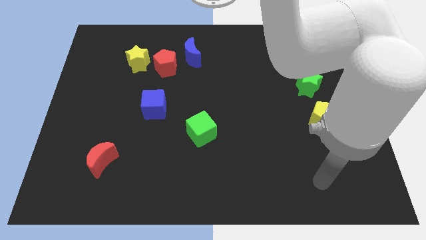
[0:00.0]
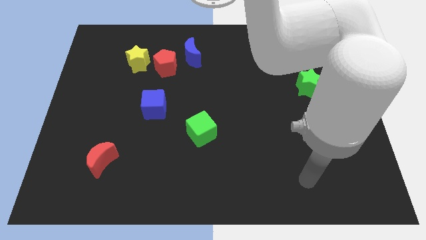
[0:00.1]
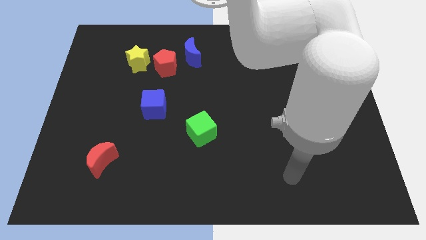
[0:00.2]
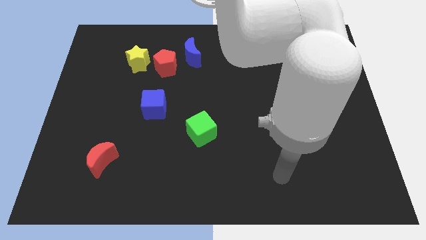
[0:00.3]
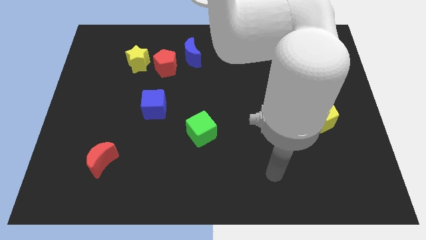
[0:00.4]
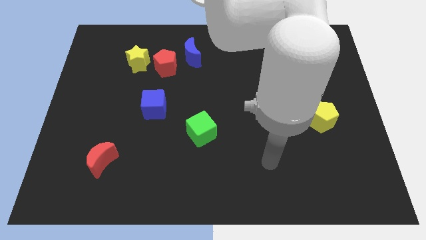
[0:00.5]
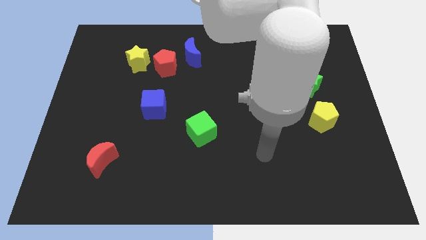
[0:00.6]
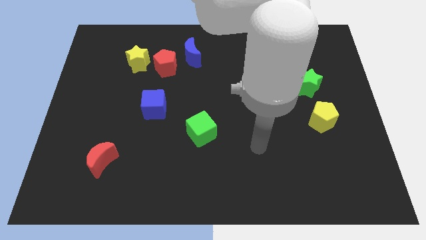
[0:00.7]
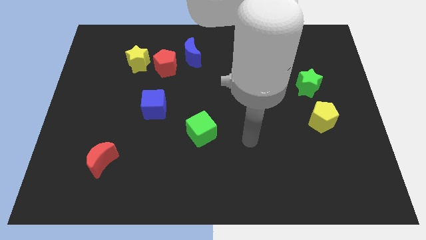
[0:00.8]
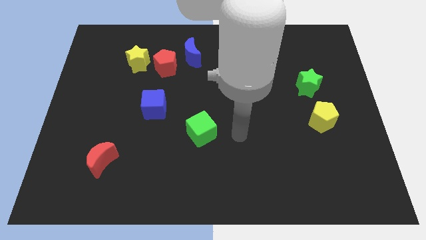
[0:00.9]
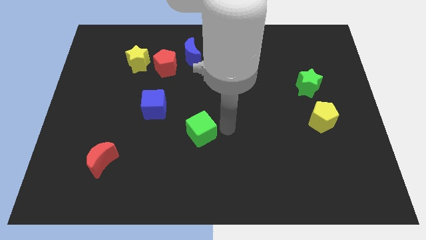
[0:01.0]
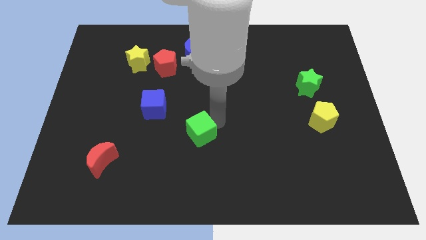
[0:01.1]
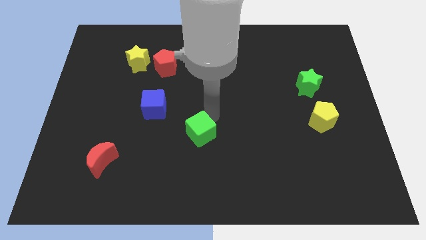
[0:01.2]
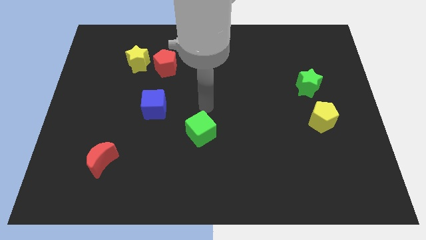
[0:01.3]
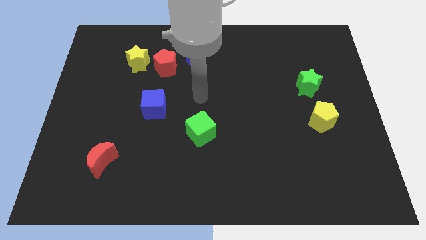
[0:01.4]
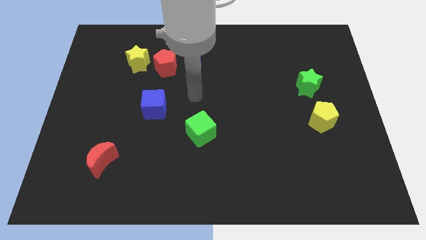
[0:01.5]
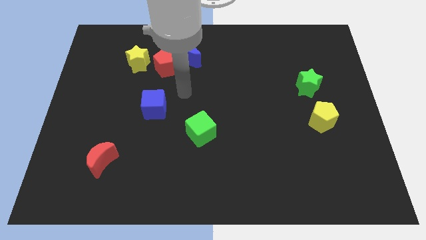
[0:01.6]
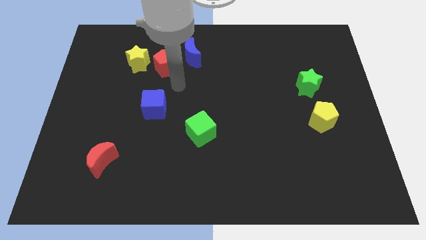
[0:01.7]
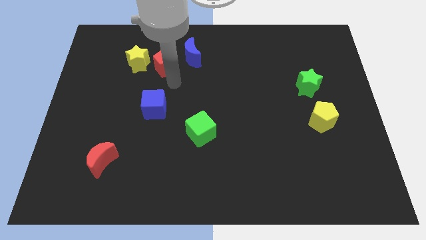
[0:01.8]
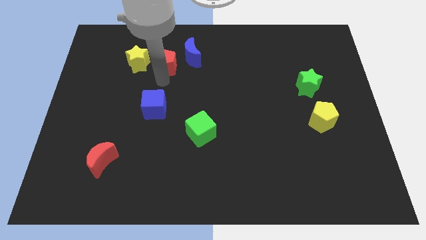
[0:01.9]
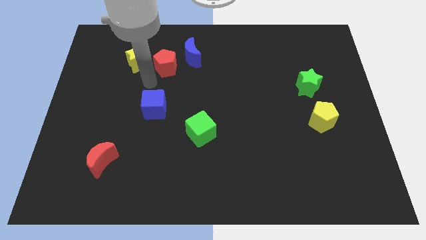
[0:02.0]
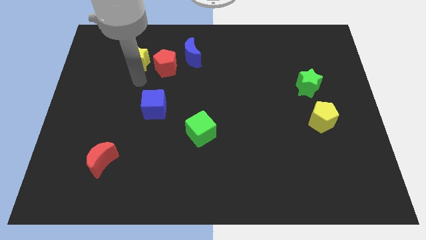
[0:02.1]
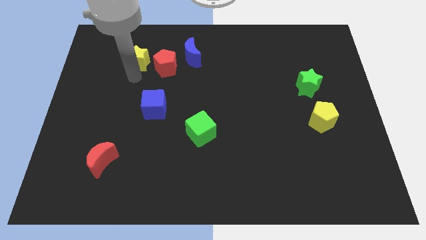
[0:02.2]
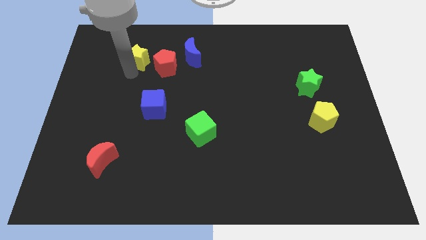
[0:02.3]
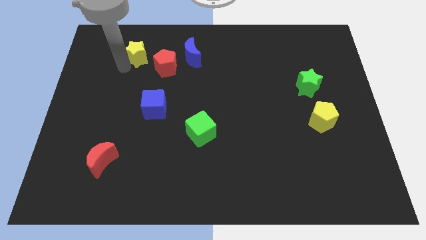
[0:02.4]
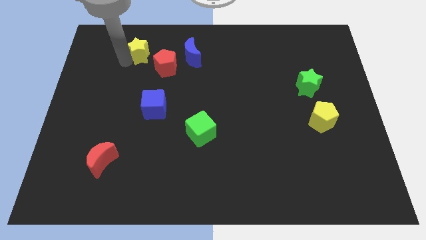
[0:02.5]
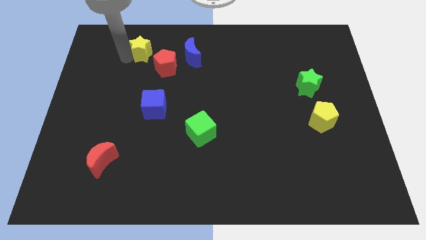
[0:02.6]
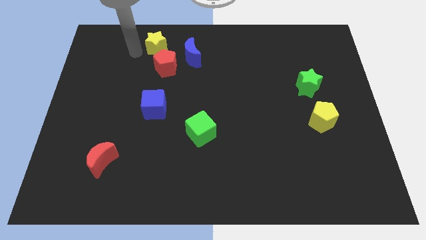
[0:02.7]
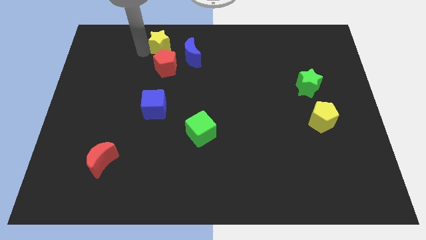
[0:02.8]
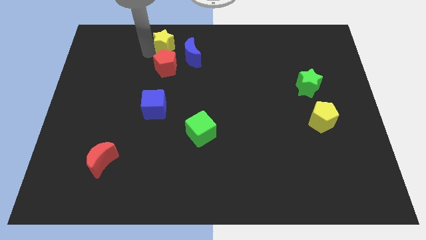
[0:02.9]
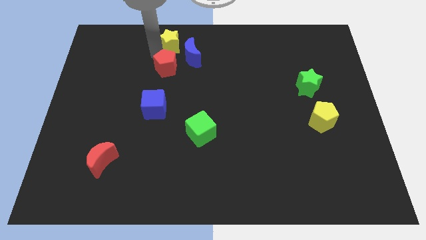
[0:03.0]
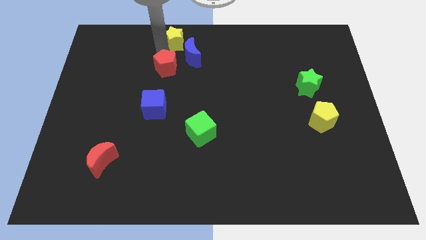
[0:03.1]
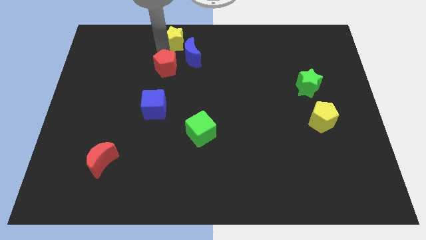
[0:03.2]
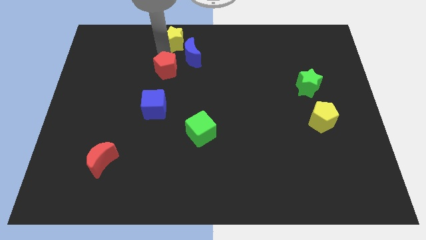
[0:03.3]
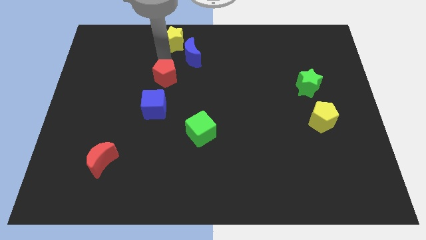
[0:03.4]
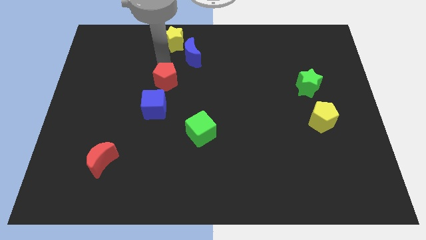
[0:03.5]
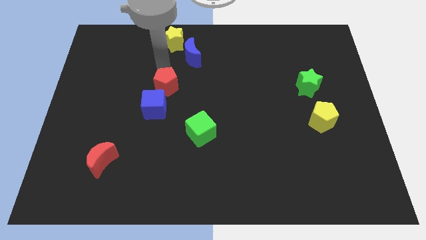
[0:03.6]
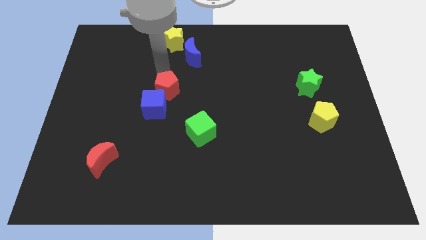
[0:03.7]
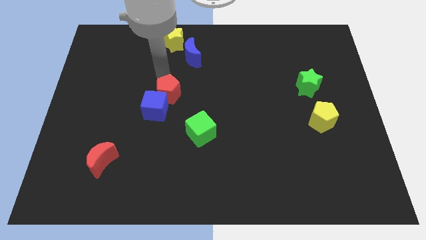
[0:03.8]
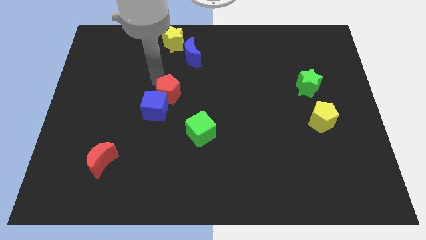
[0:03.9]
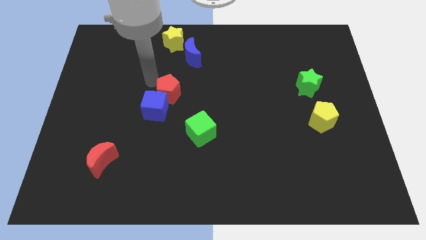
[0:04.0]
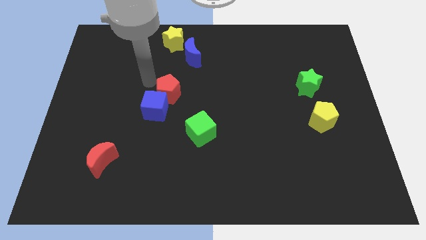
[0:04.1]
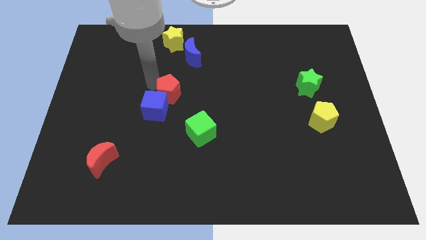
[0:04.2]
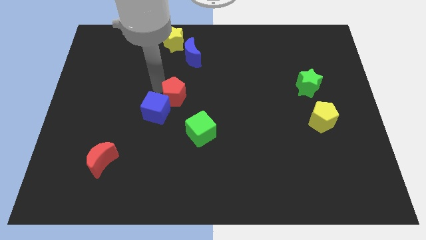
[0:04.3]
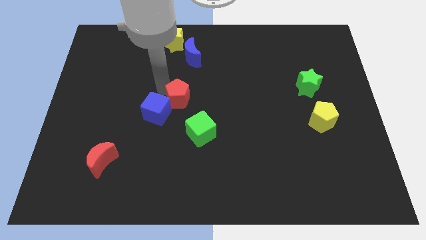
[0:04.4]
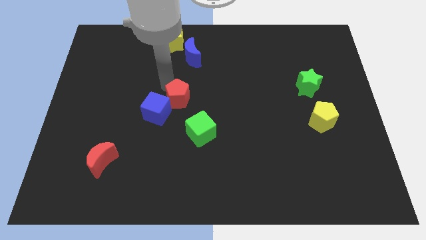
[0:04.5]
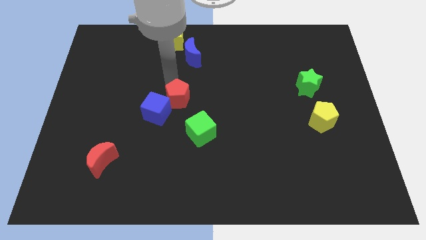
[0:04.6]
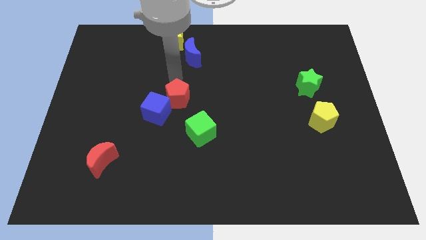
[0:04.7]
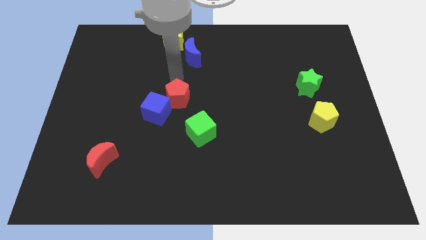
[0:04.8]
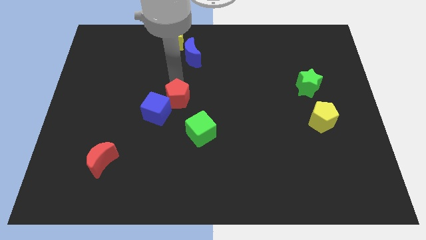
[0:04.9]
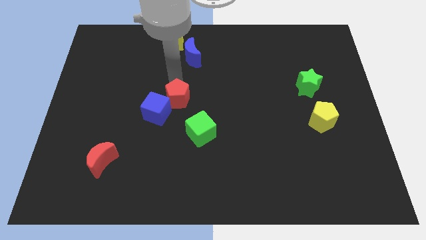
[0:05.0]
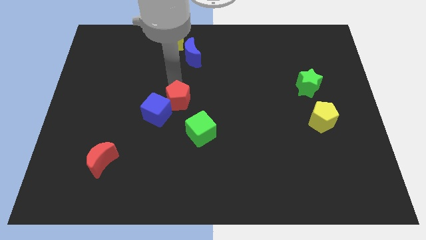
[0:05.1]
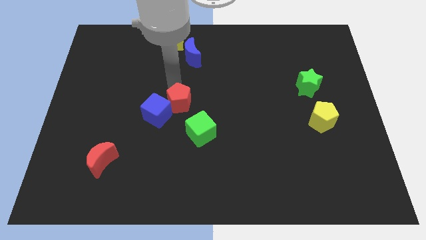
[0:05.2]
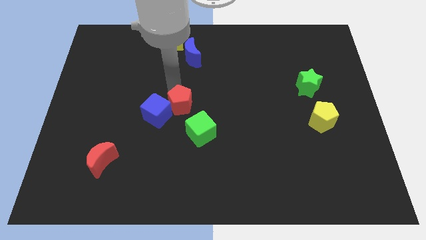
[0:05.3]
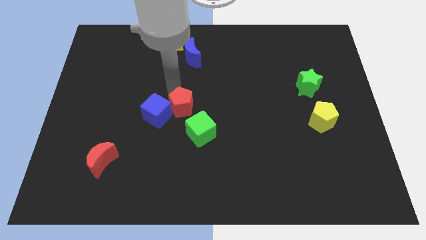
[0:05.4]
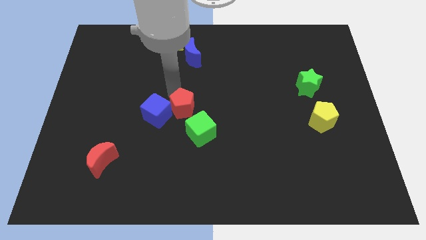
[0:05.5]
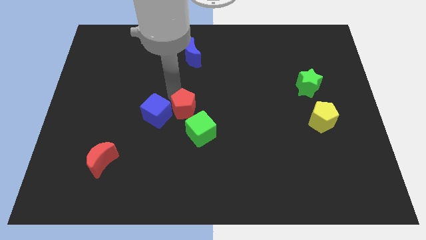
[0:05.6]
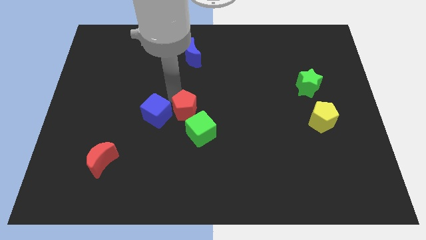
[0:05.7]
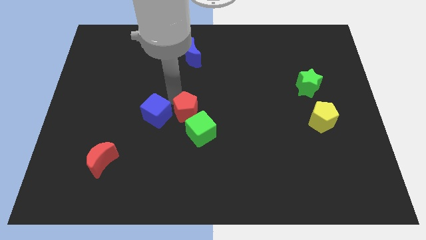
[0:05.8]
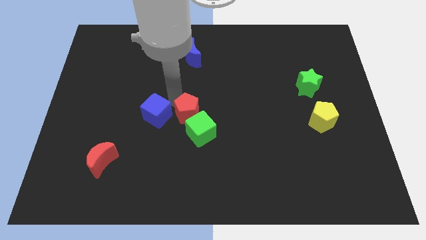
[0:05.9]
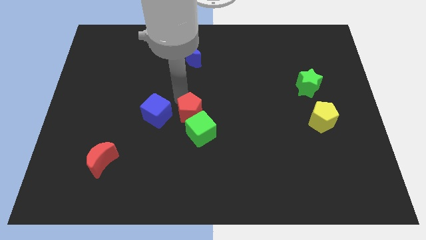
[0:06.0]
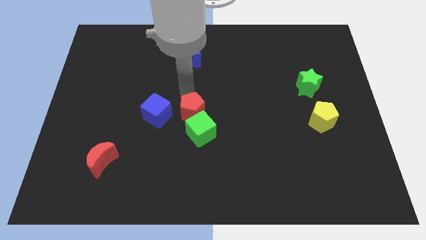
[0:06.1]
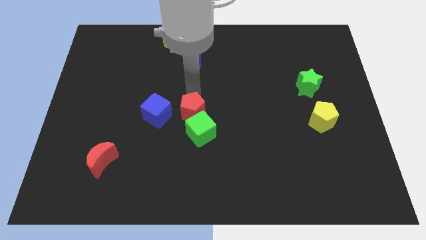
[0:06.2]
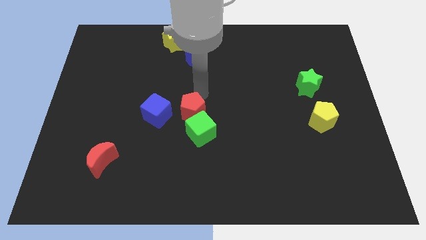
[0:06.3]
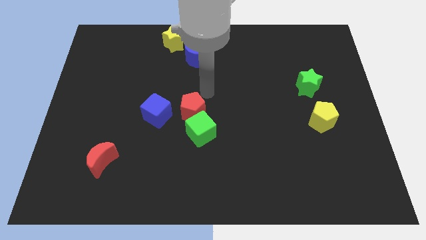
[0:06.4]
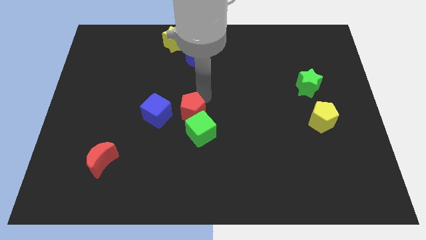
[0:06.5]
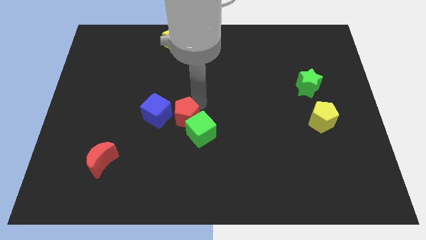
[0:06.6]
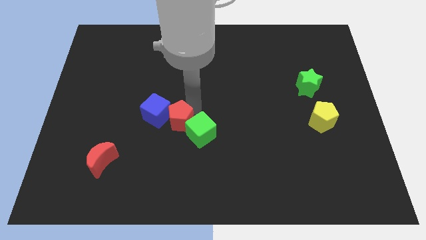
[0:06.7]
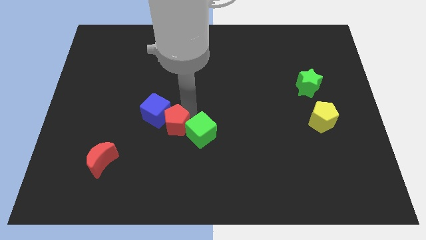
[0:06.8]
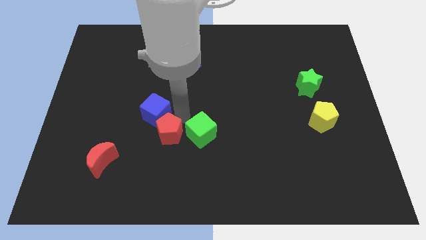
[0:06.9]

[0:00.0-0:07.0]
slide the red pentagon down

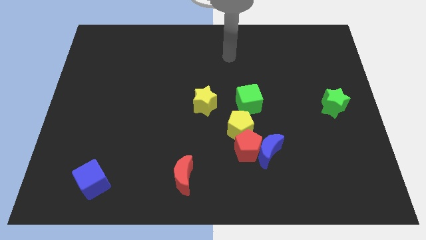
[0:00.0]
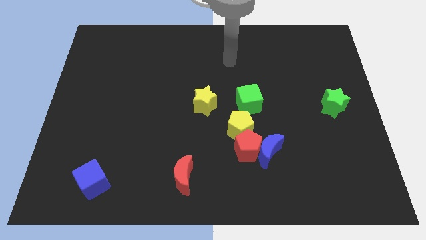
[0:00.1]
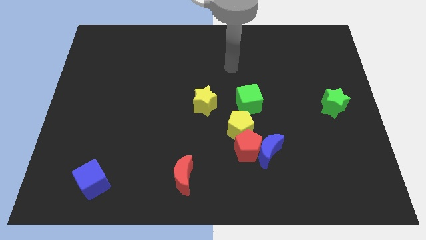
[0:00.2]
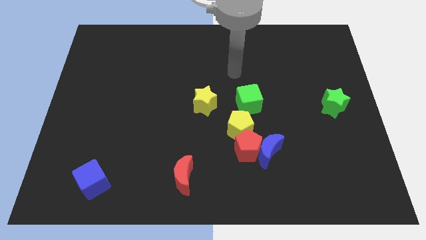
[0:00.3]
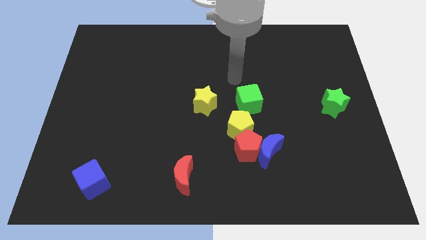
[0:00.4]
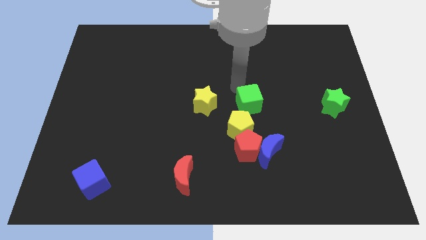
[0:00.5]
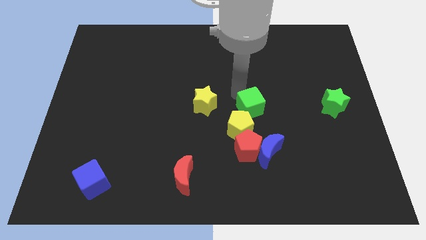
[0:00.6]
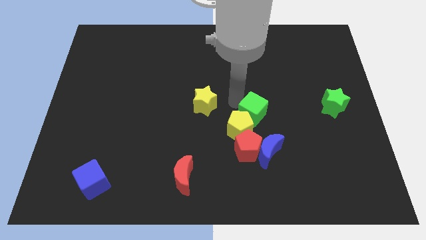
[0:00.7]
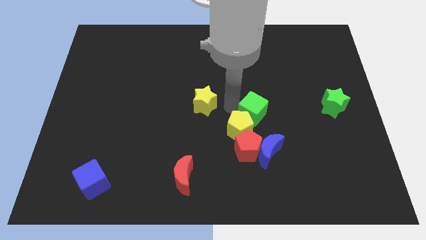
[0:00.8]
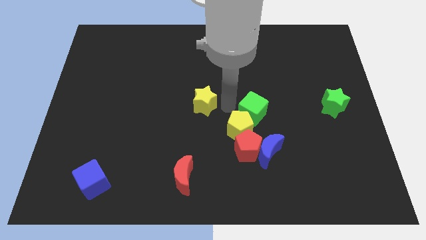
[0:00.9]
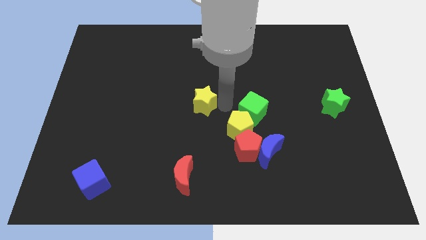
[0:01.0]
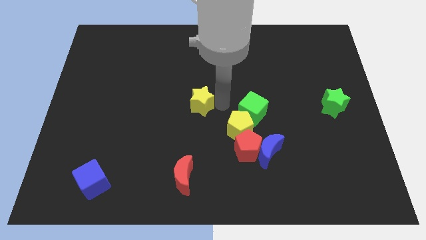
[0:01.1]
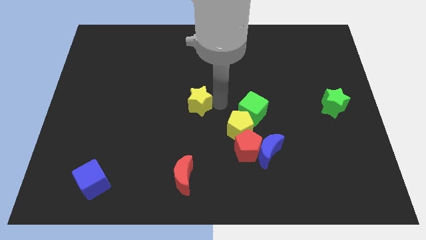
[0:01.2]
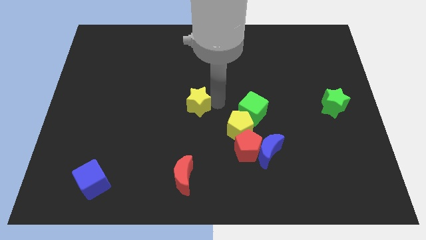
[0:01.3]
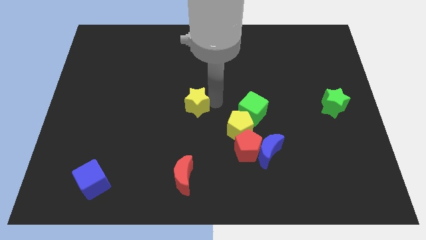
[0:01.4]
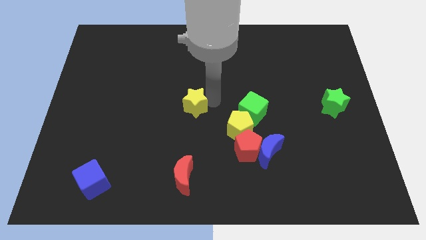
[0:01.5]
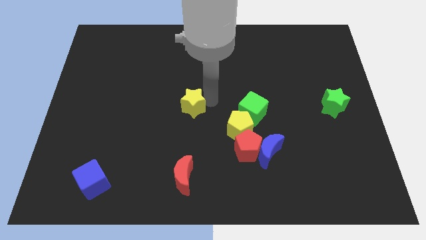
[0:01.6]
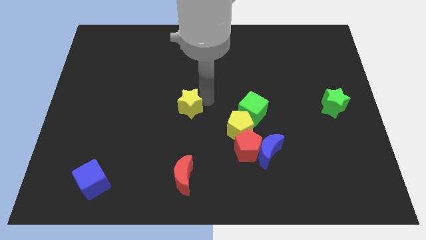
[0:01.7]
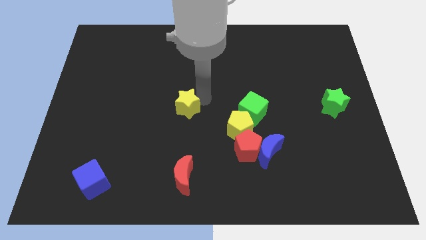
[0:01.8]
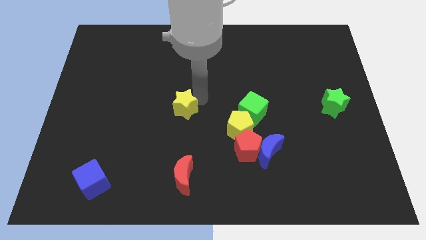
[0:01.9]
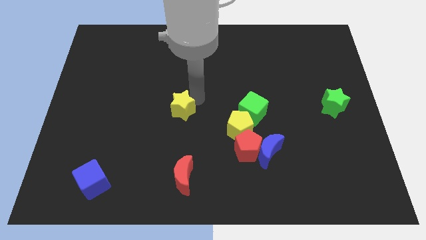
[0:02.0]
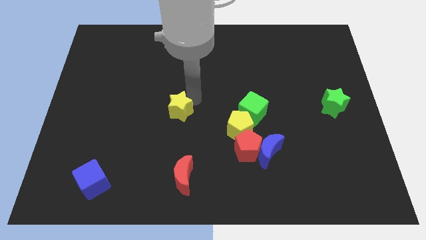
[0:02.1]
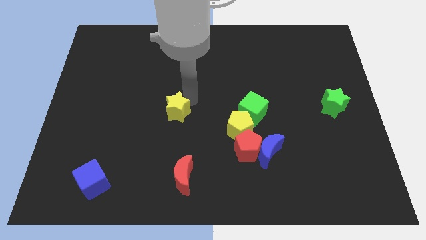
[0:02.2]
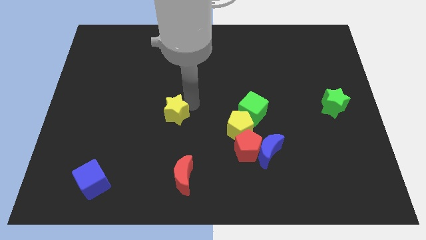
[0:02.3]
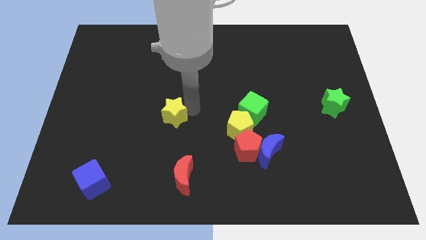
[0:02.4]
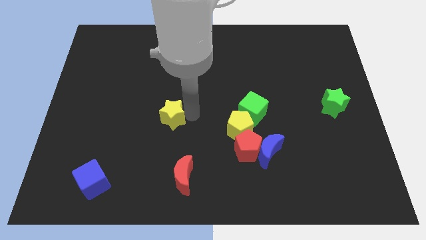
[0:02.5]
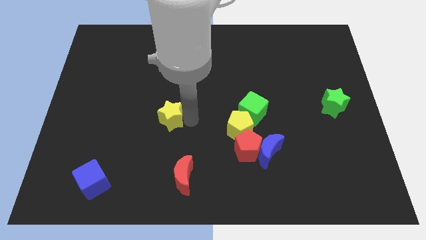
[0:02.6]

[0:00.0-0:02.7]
move the yellow star a little bit left
